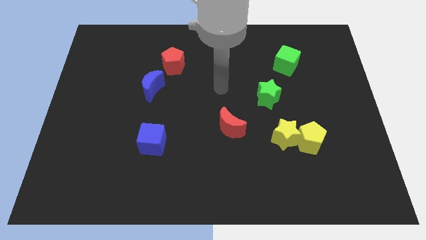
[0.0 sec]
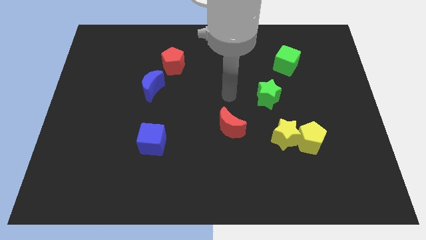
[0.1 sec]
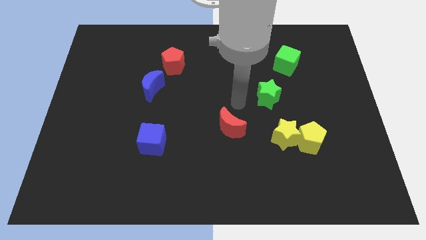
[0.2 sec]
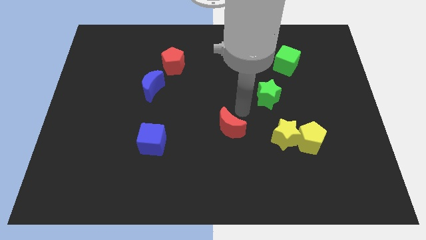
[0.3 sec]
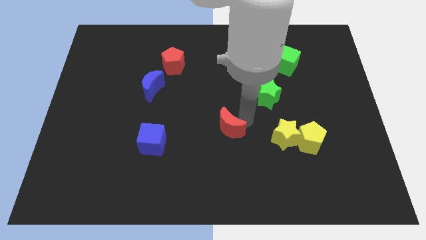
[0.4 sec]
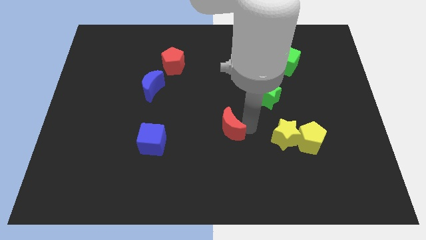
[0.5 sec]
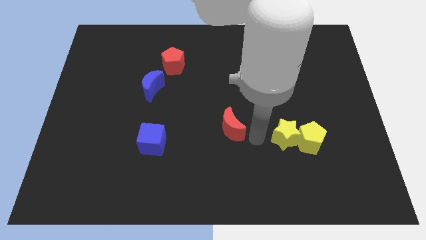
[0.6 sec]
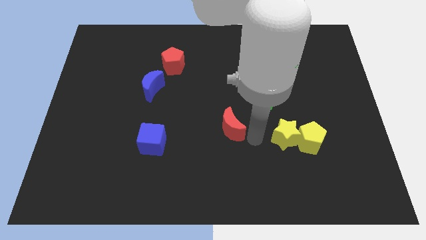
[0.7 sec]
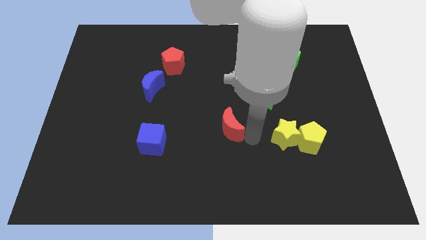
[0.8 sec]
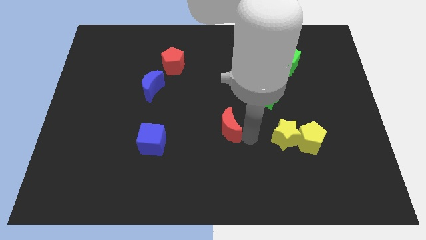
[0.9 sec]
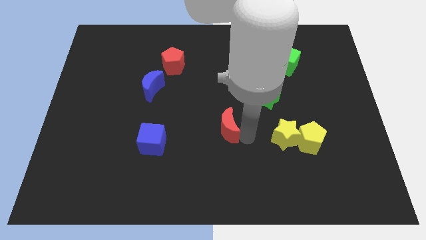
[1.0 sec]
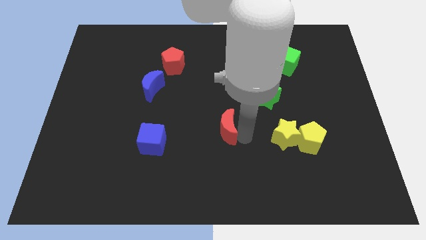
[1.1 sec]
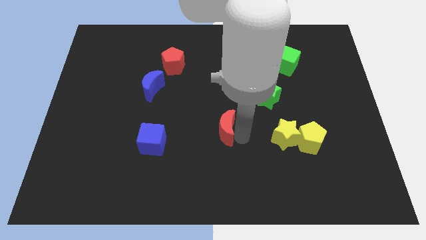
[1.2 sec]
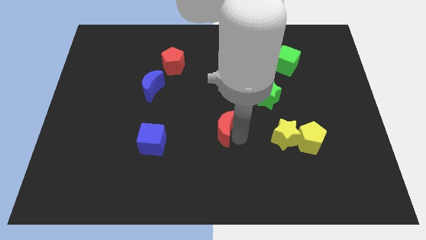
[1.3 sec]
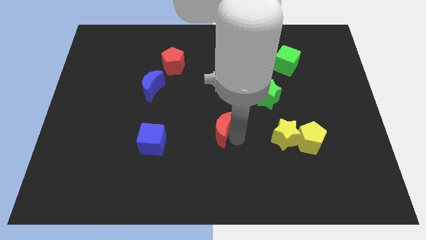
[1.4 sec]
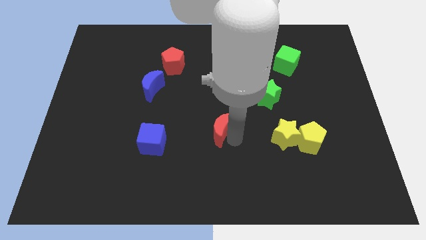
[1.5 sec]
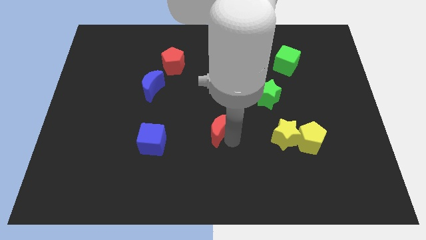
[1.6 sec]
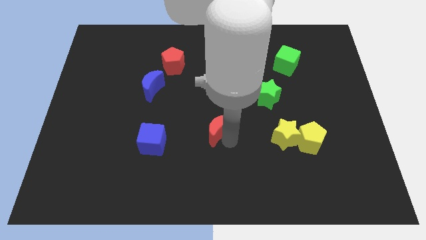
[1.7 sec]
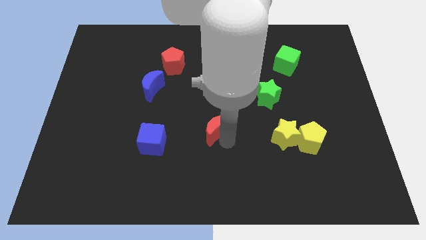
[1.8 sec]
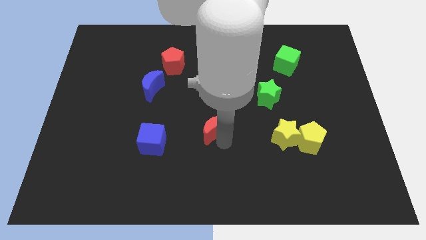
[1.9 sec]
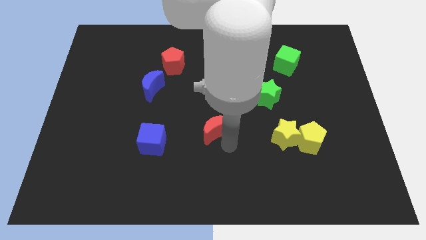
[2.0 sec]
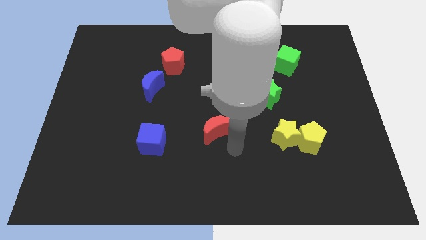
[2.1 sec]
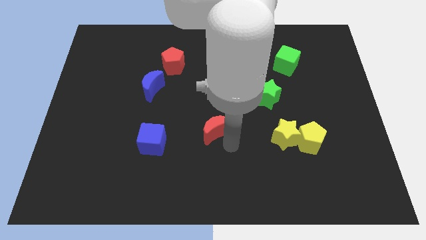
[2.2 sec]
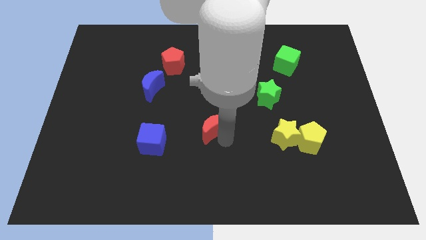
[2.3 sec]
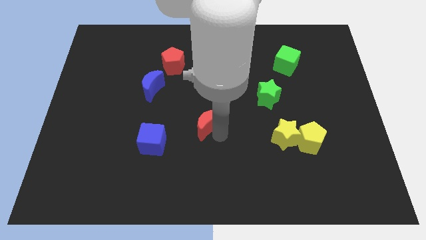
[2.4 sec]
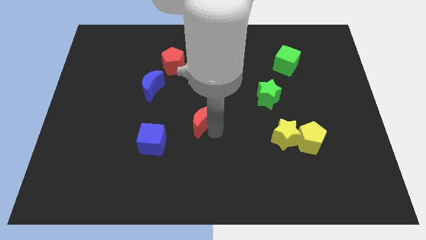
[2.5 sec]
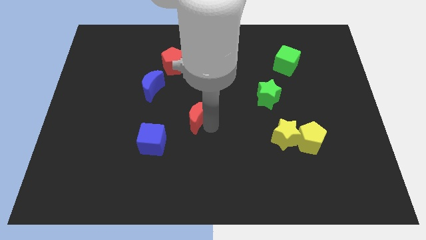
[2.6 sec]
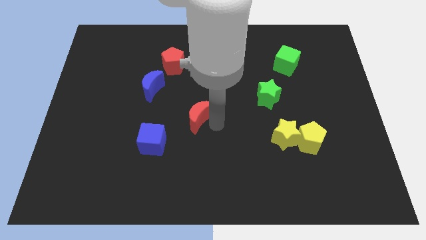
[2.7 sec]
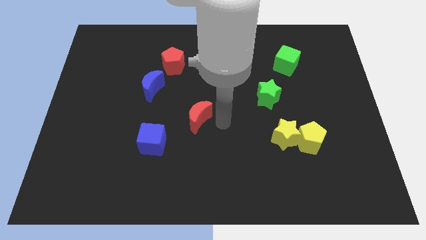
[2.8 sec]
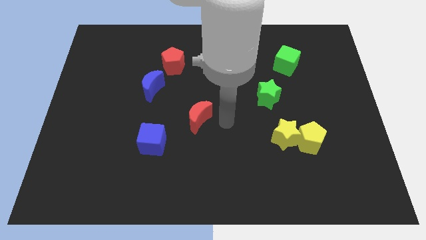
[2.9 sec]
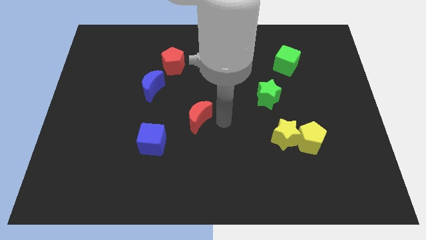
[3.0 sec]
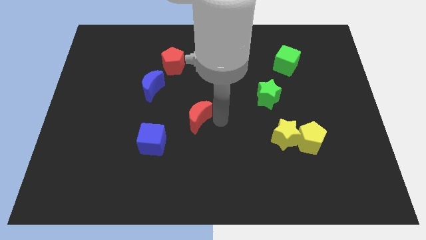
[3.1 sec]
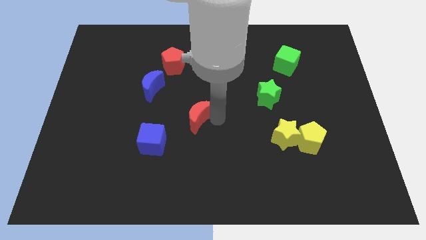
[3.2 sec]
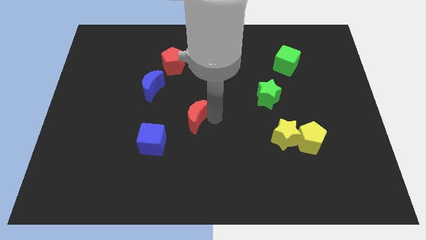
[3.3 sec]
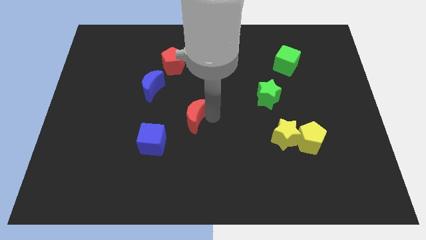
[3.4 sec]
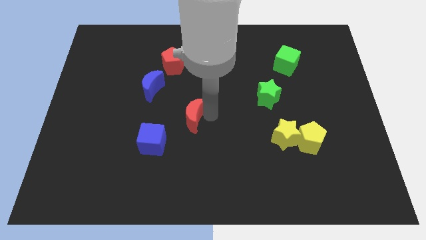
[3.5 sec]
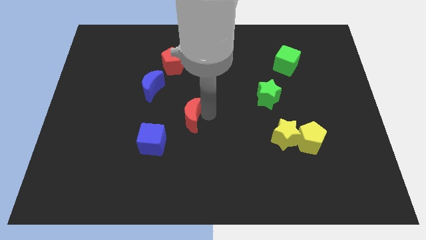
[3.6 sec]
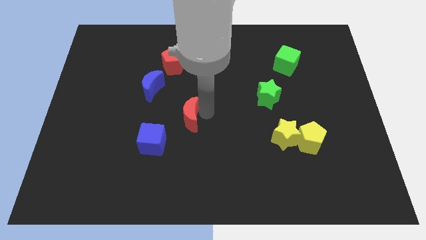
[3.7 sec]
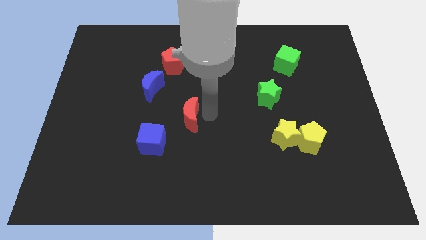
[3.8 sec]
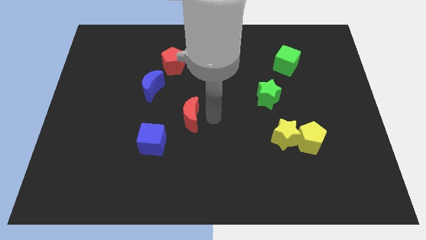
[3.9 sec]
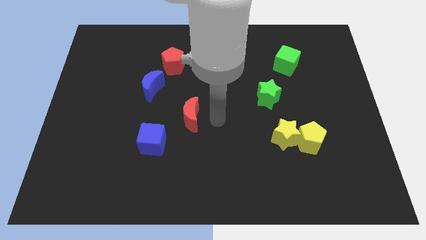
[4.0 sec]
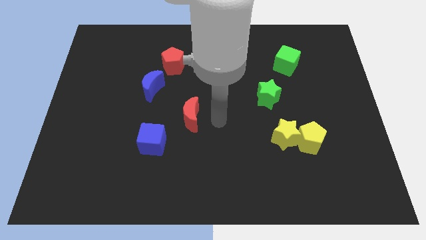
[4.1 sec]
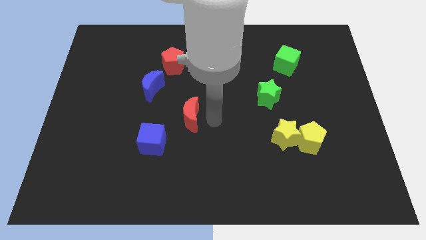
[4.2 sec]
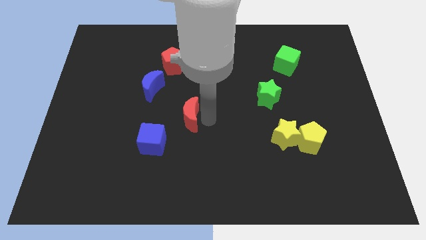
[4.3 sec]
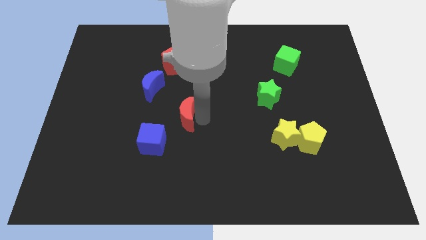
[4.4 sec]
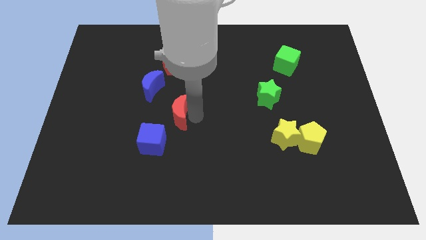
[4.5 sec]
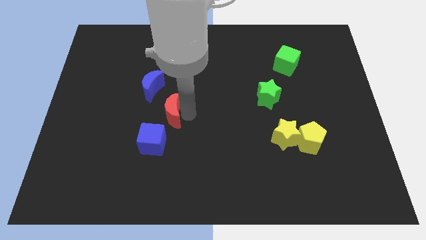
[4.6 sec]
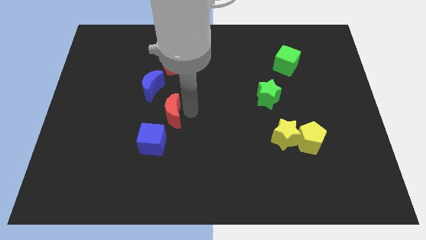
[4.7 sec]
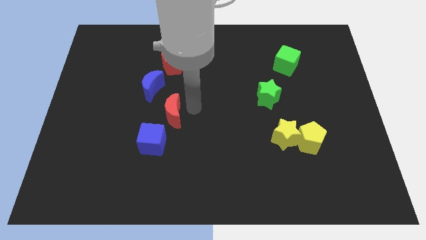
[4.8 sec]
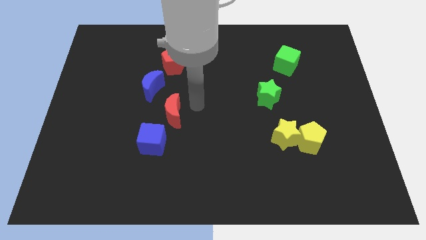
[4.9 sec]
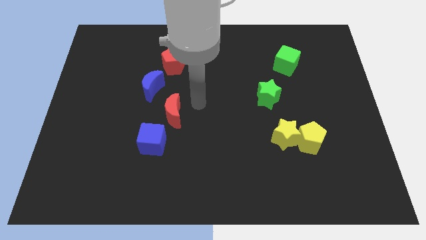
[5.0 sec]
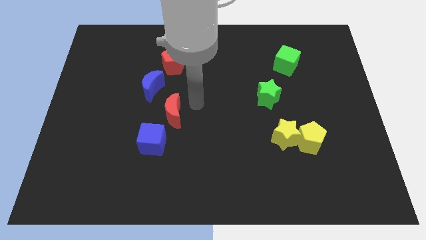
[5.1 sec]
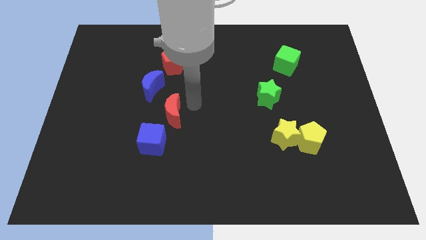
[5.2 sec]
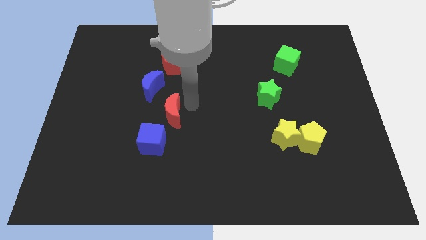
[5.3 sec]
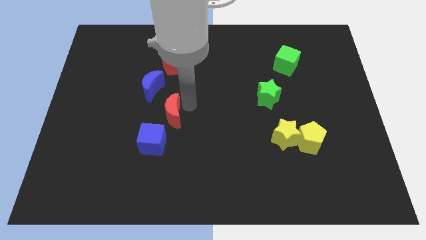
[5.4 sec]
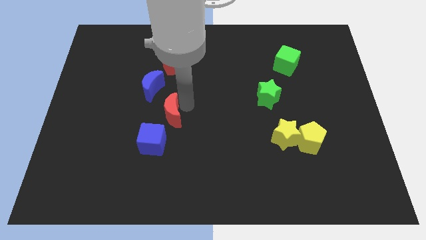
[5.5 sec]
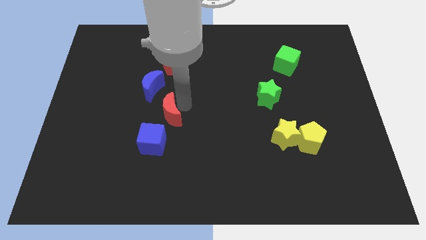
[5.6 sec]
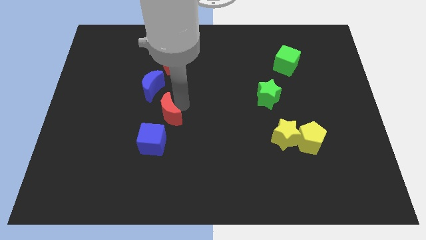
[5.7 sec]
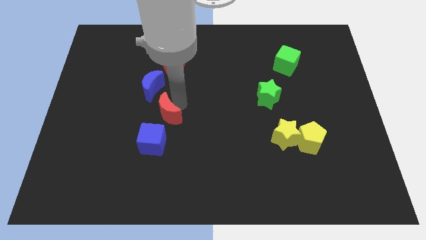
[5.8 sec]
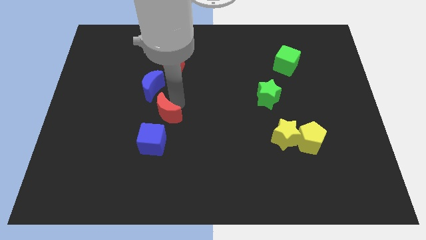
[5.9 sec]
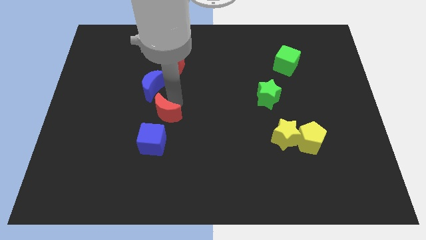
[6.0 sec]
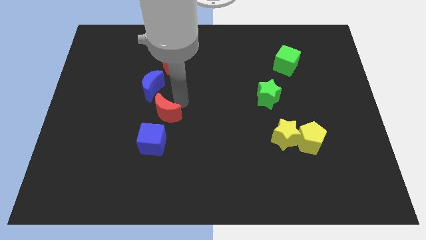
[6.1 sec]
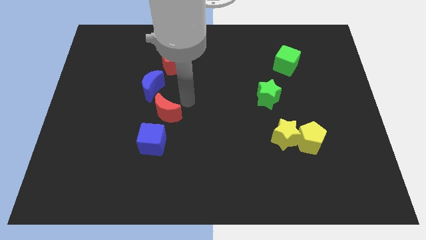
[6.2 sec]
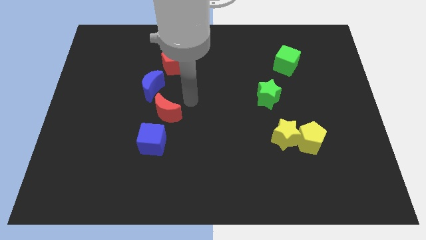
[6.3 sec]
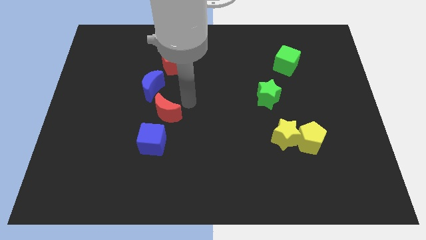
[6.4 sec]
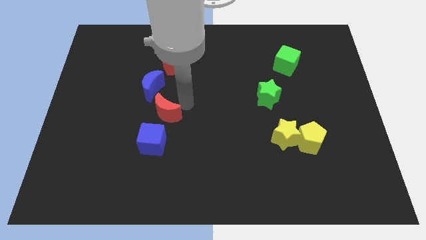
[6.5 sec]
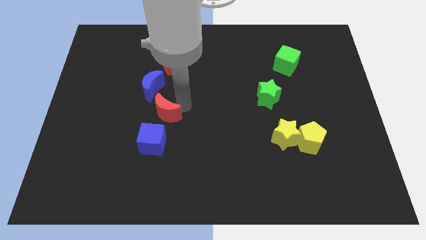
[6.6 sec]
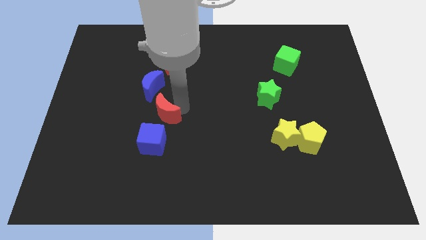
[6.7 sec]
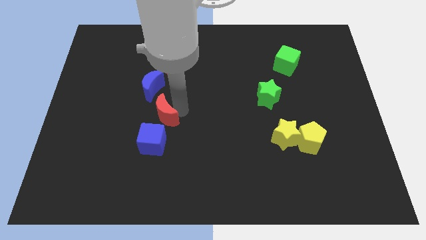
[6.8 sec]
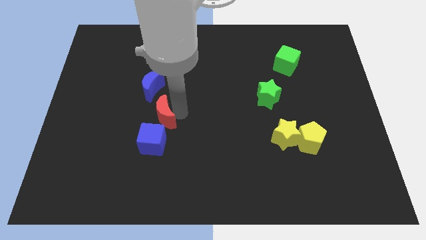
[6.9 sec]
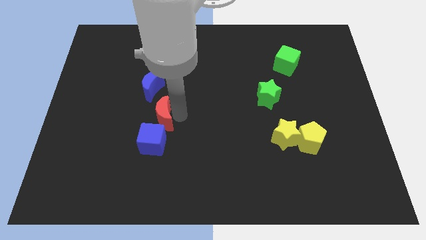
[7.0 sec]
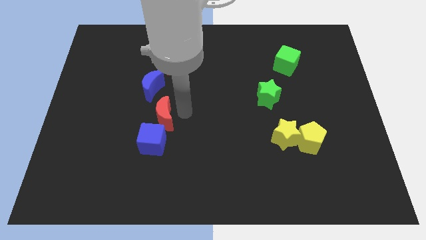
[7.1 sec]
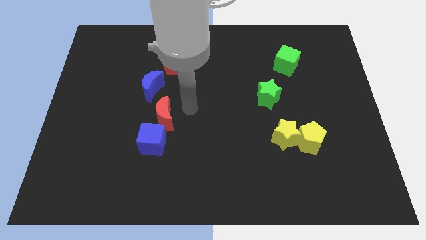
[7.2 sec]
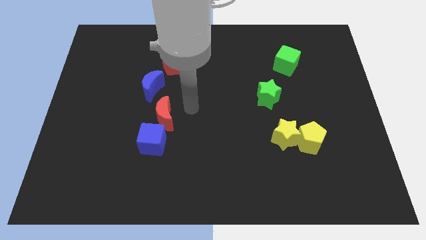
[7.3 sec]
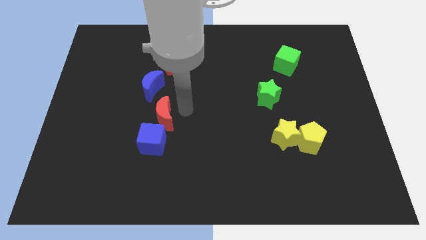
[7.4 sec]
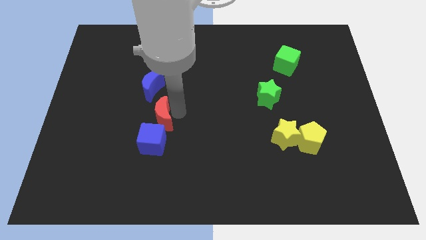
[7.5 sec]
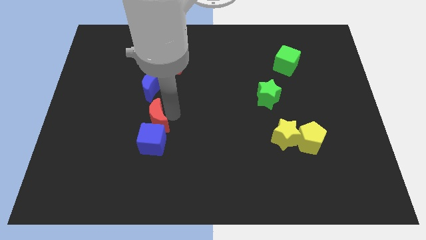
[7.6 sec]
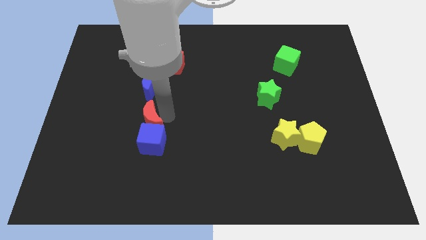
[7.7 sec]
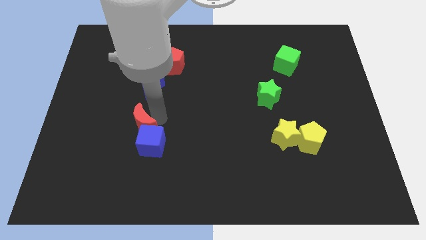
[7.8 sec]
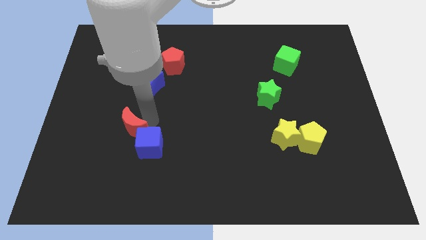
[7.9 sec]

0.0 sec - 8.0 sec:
put the red moon left of the blue cube

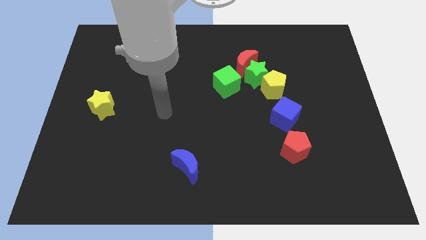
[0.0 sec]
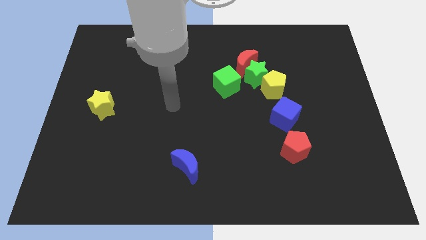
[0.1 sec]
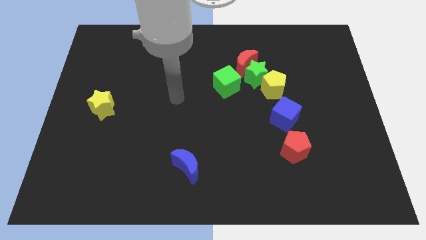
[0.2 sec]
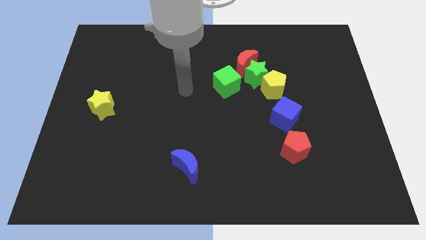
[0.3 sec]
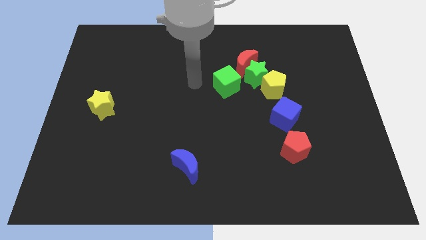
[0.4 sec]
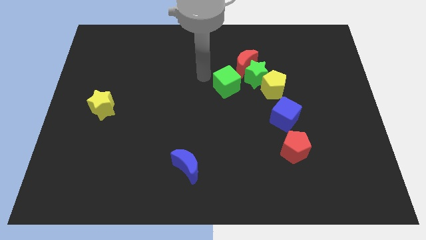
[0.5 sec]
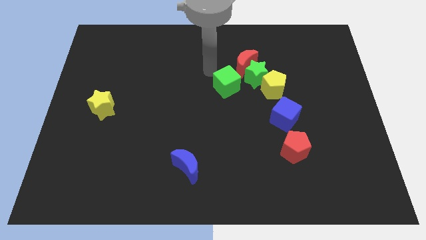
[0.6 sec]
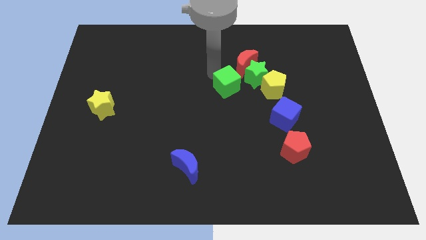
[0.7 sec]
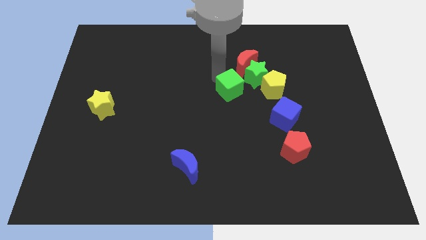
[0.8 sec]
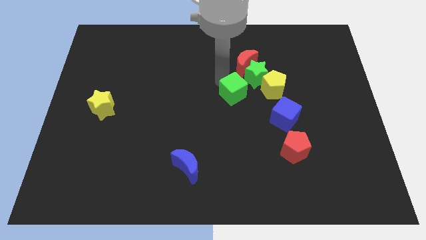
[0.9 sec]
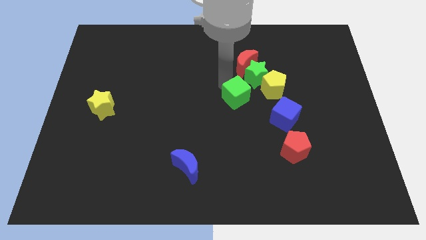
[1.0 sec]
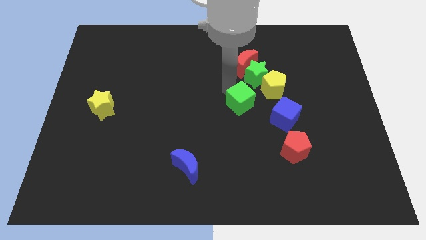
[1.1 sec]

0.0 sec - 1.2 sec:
move the green cube to the bottom side of the green star
